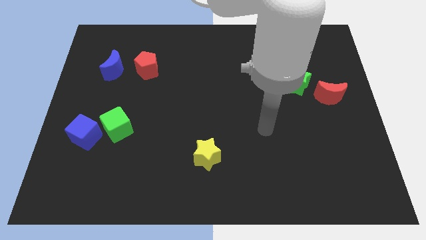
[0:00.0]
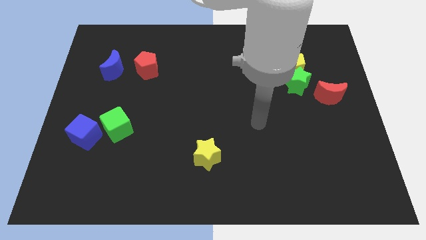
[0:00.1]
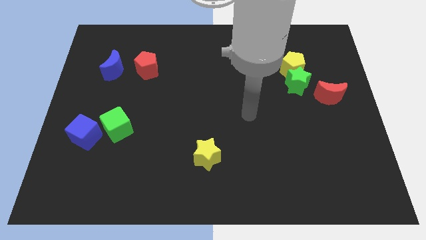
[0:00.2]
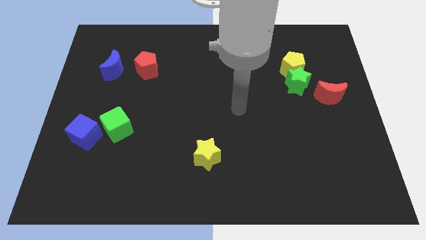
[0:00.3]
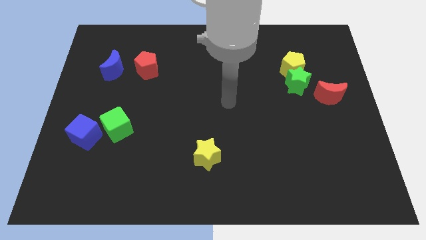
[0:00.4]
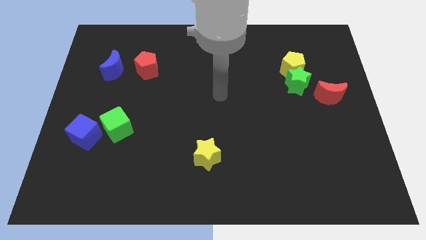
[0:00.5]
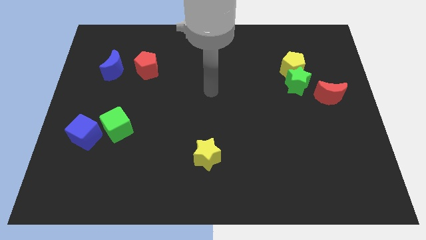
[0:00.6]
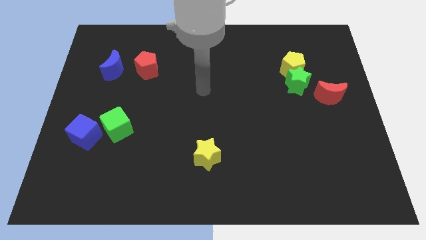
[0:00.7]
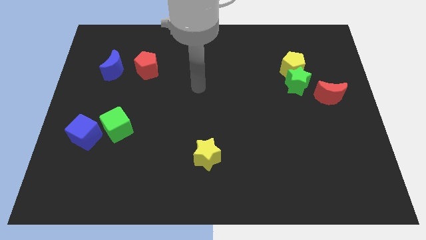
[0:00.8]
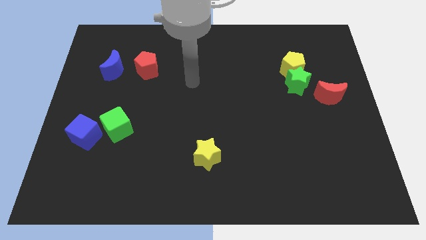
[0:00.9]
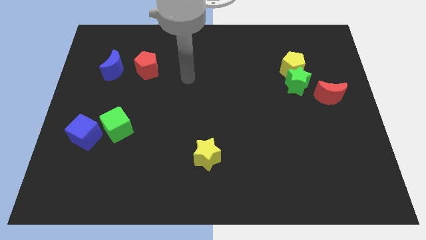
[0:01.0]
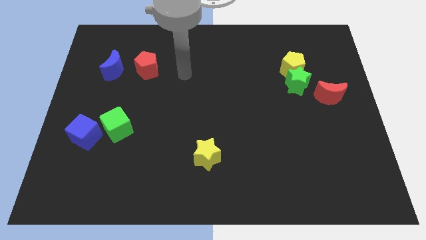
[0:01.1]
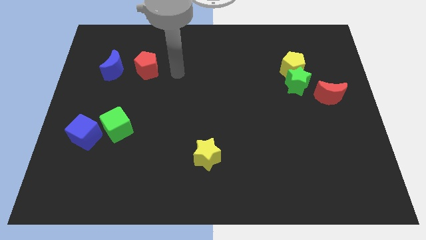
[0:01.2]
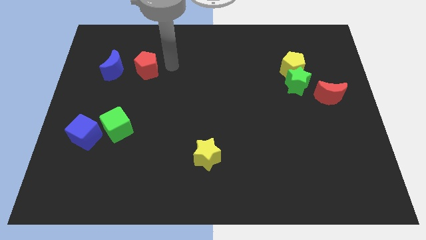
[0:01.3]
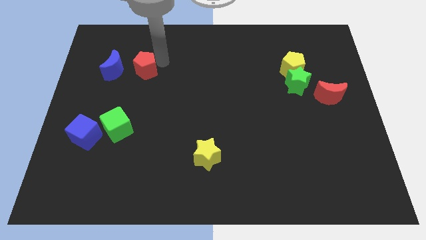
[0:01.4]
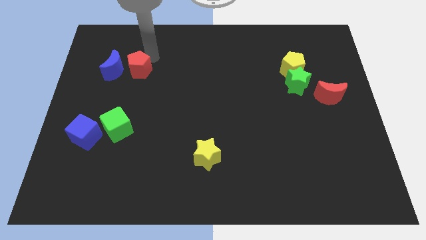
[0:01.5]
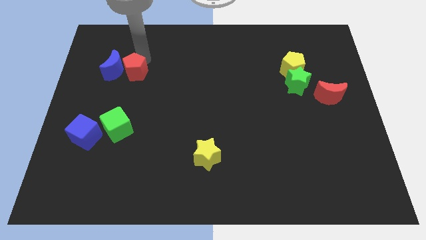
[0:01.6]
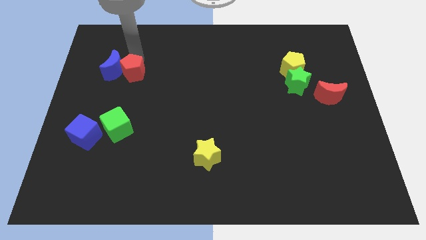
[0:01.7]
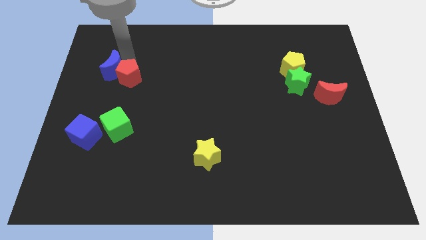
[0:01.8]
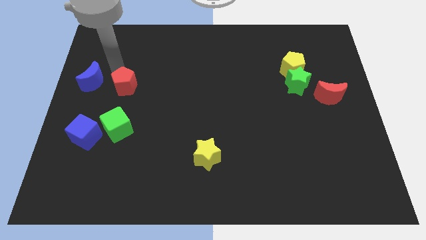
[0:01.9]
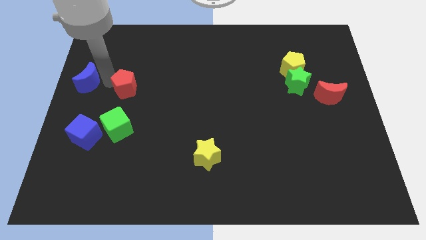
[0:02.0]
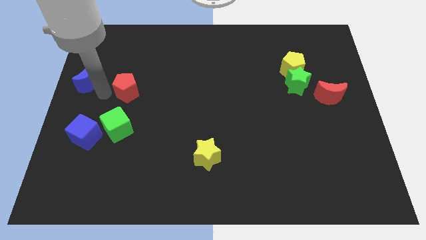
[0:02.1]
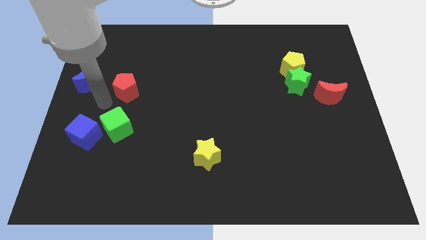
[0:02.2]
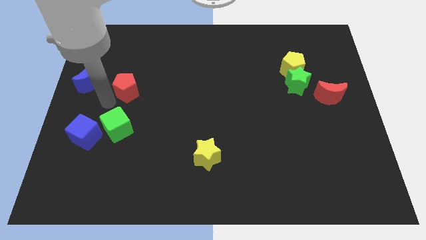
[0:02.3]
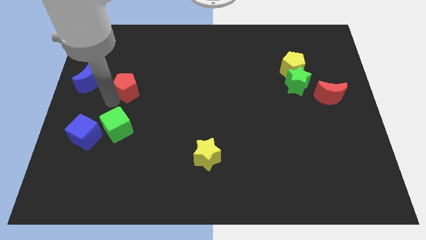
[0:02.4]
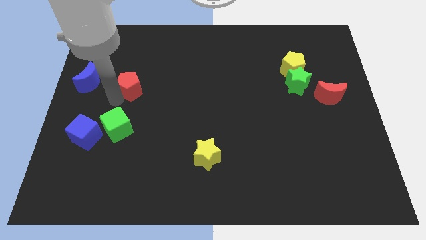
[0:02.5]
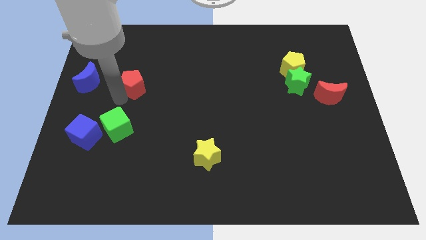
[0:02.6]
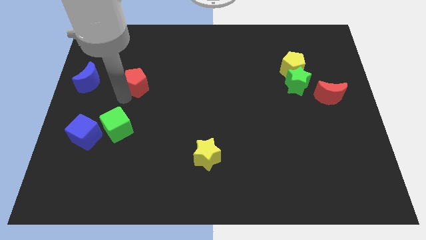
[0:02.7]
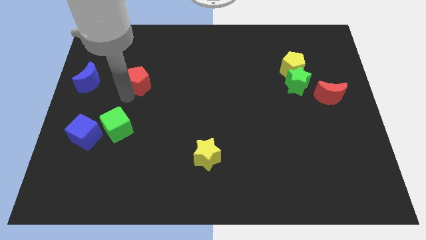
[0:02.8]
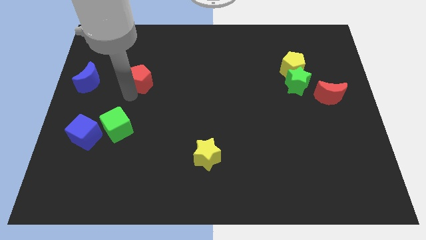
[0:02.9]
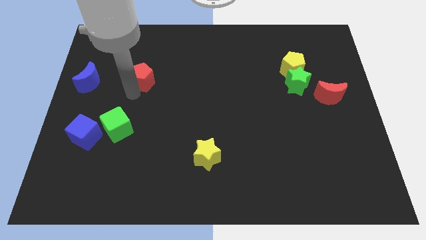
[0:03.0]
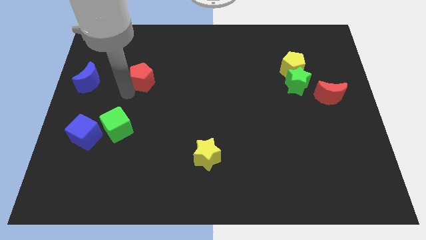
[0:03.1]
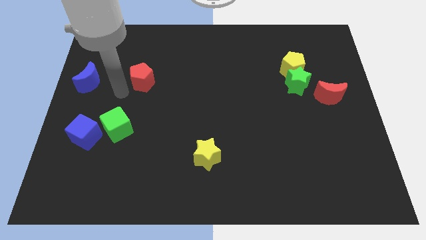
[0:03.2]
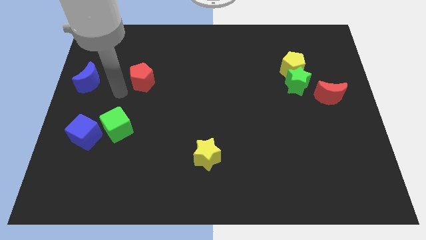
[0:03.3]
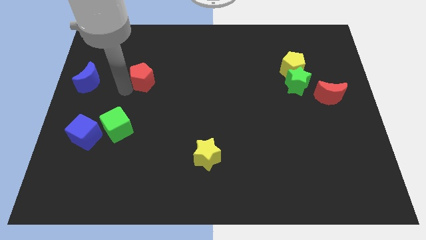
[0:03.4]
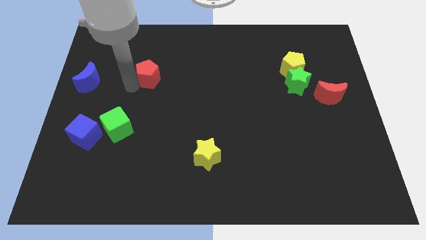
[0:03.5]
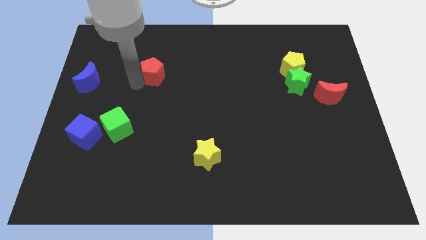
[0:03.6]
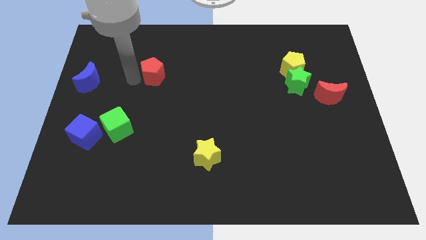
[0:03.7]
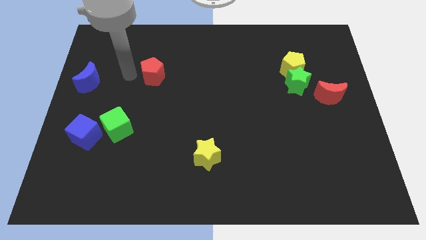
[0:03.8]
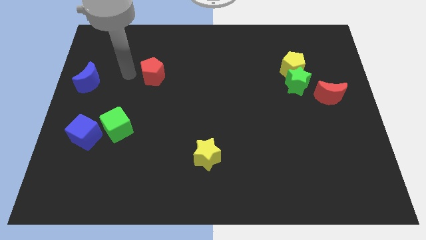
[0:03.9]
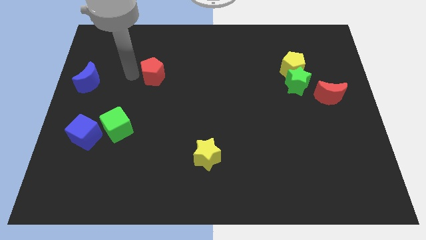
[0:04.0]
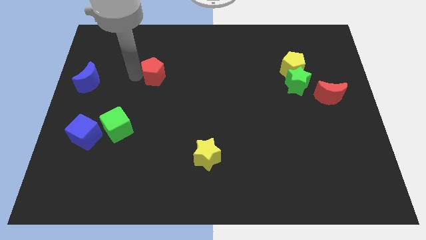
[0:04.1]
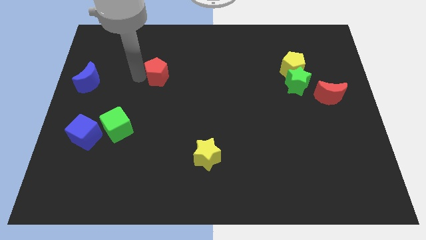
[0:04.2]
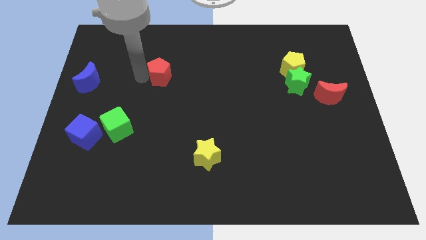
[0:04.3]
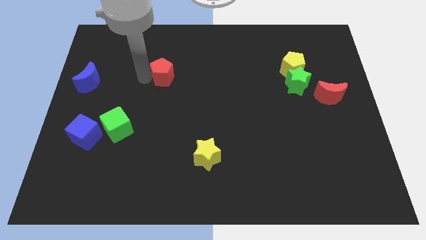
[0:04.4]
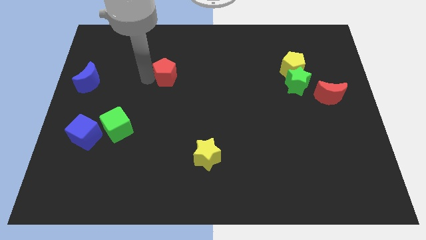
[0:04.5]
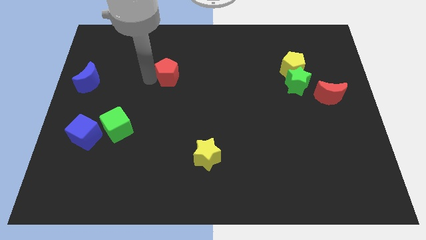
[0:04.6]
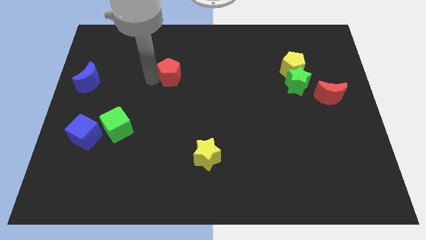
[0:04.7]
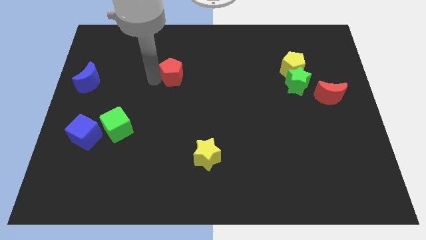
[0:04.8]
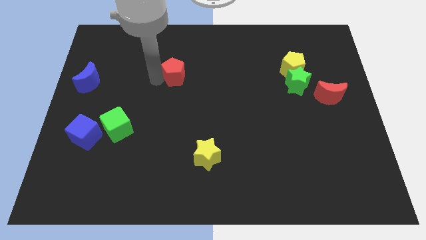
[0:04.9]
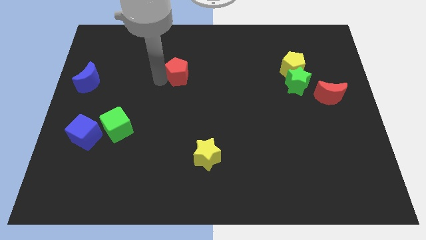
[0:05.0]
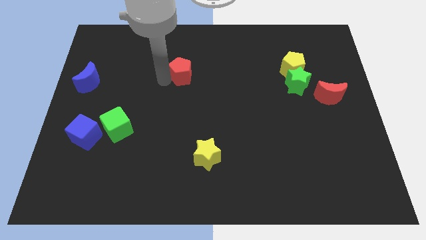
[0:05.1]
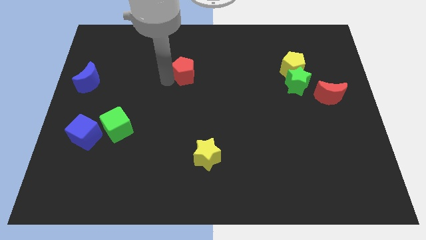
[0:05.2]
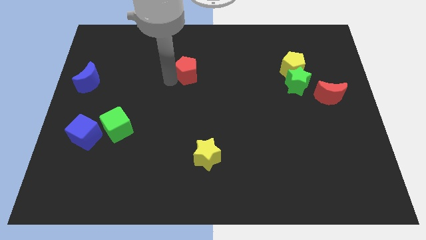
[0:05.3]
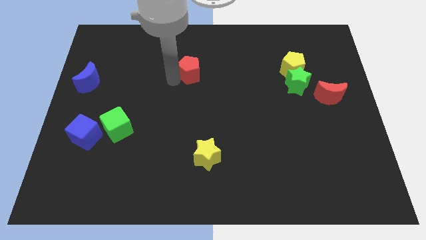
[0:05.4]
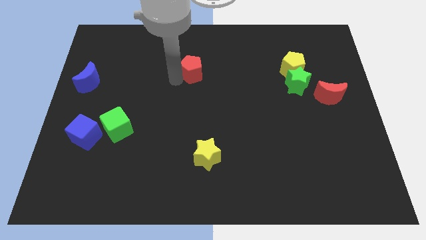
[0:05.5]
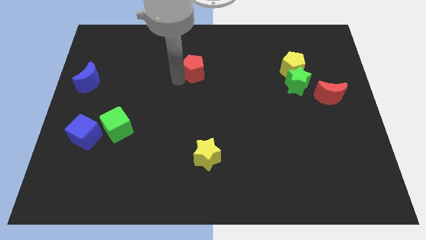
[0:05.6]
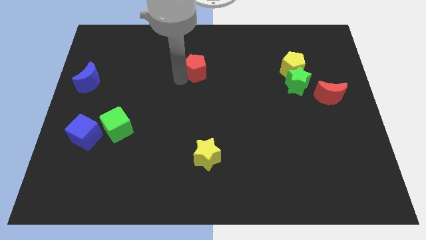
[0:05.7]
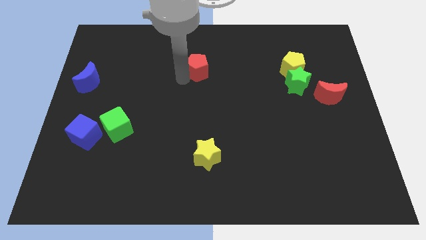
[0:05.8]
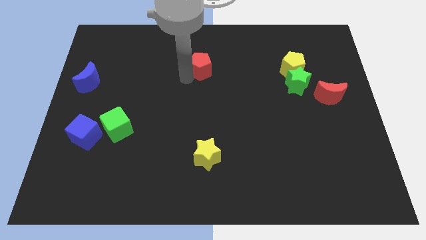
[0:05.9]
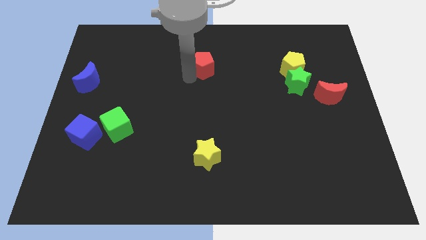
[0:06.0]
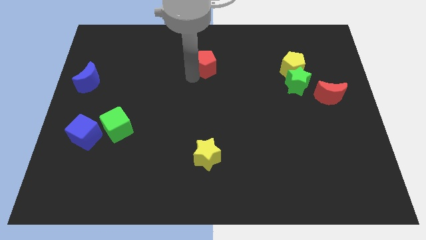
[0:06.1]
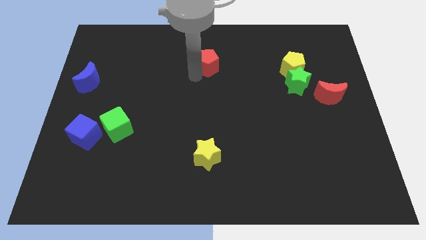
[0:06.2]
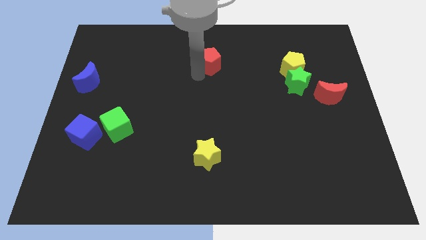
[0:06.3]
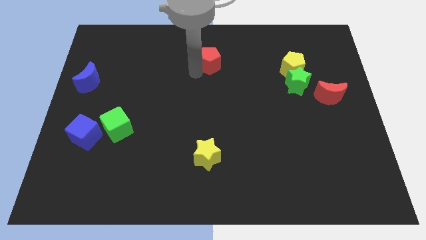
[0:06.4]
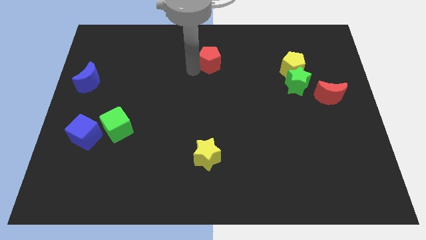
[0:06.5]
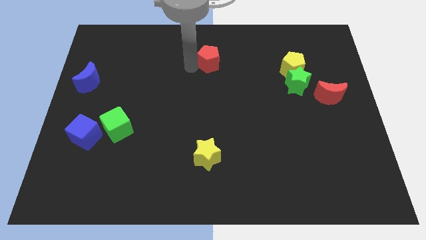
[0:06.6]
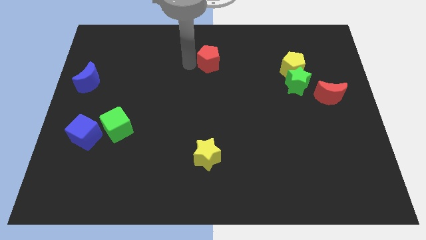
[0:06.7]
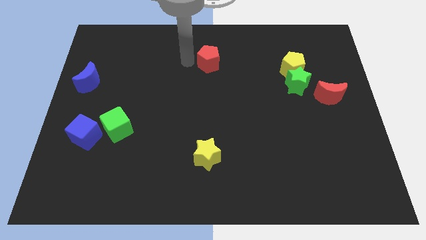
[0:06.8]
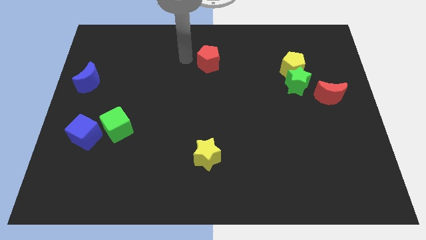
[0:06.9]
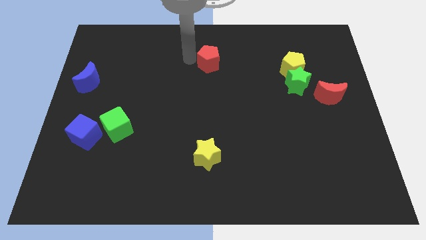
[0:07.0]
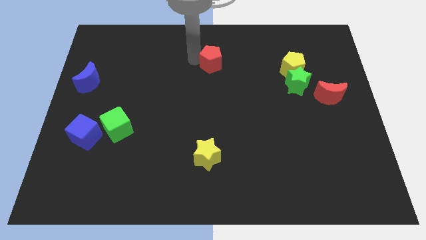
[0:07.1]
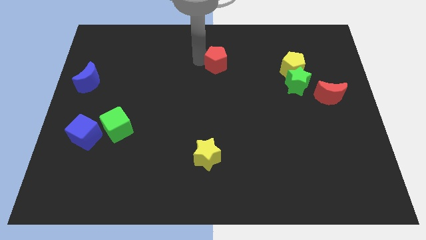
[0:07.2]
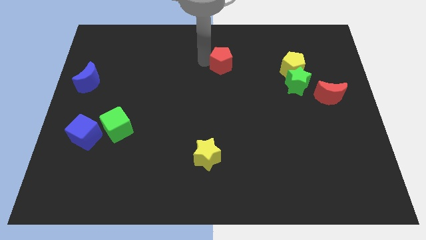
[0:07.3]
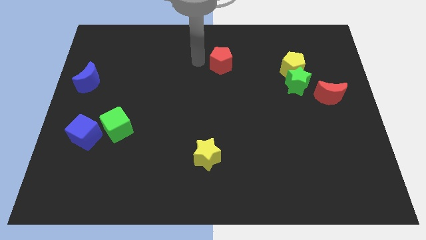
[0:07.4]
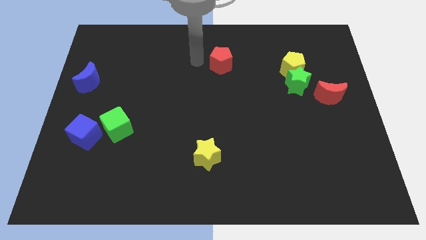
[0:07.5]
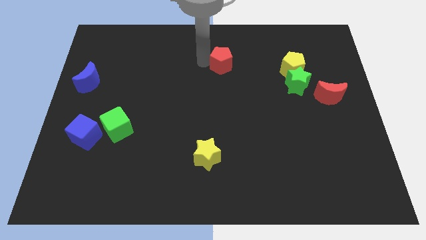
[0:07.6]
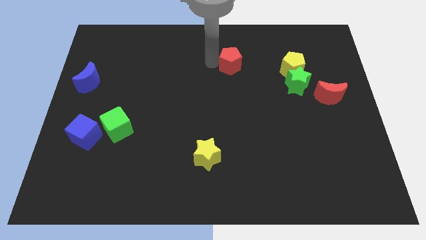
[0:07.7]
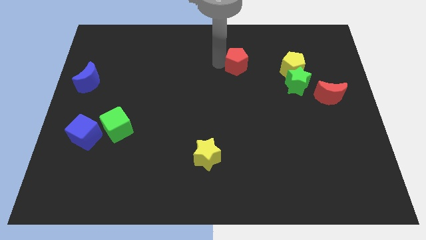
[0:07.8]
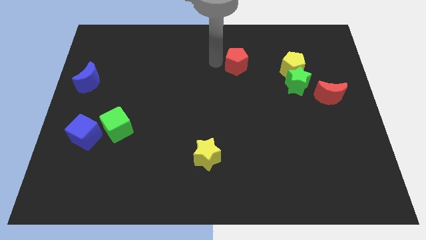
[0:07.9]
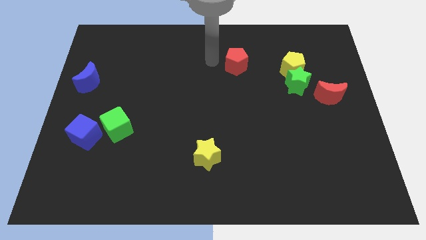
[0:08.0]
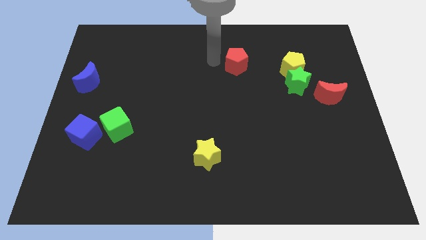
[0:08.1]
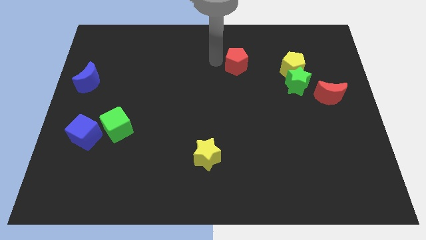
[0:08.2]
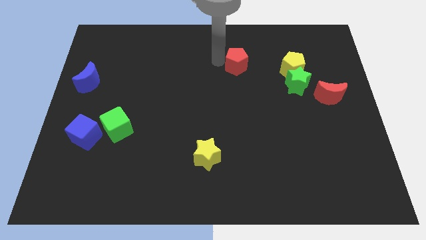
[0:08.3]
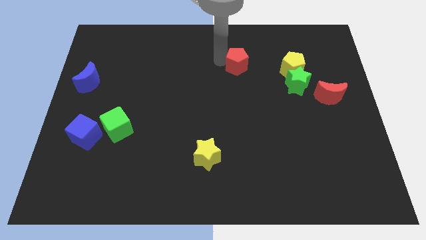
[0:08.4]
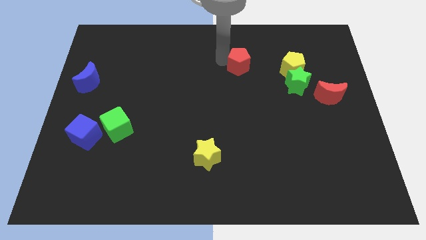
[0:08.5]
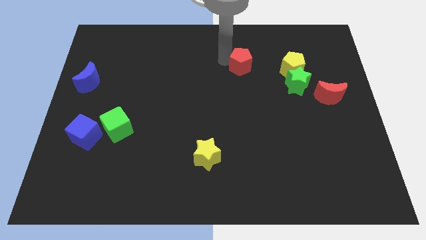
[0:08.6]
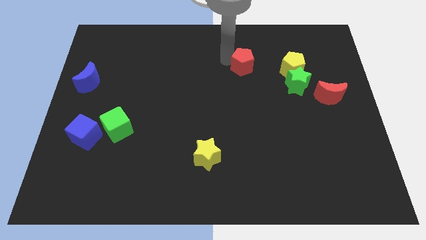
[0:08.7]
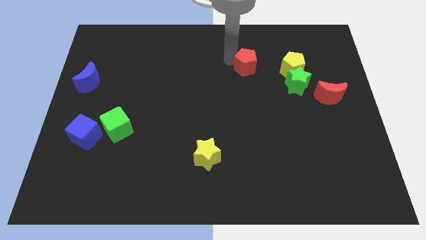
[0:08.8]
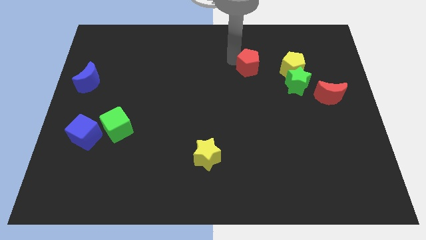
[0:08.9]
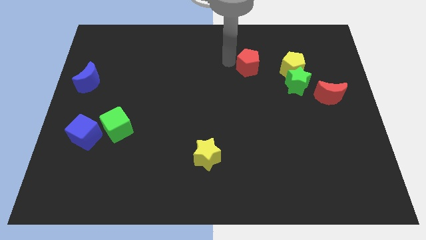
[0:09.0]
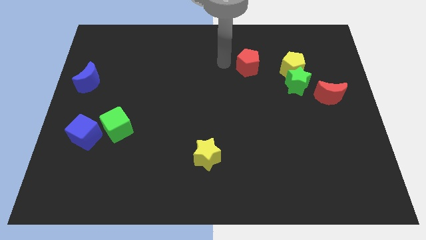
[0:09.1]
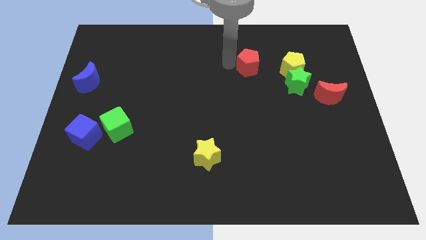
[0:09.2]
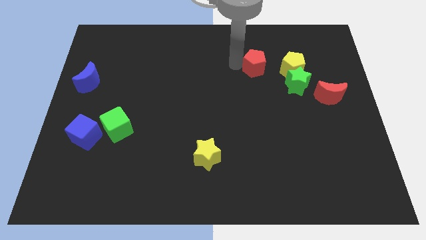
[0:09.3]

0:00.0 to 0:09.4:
put the red pentagon to the top left of the green star
